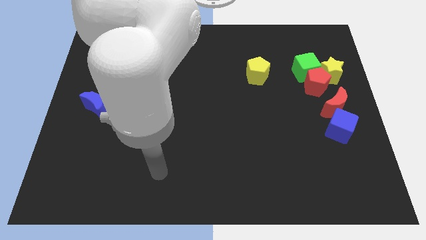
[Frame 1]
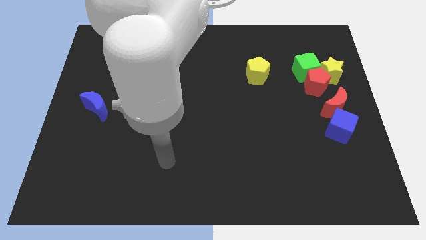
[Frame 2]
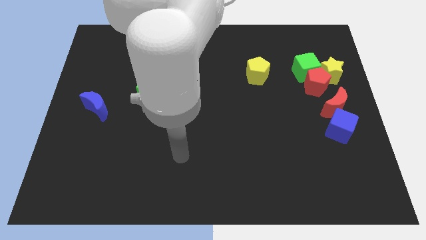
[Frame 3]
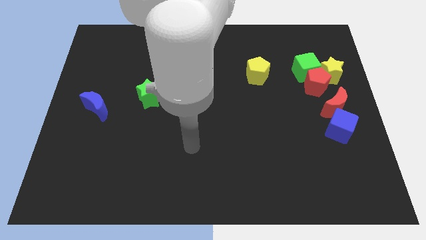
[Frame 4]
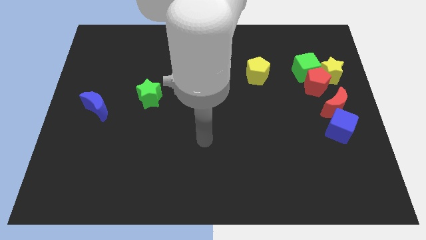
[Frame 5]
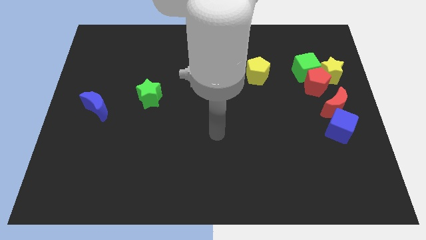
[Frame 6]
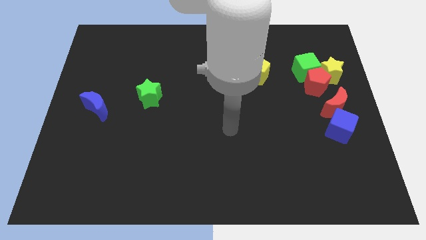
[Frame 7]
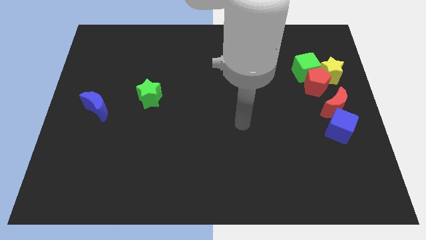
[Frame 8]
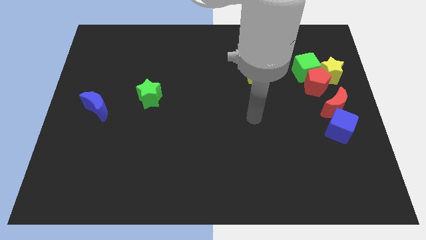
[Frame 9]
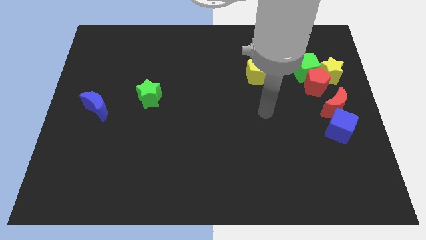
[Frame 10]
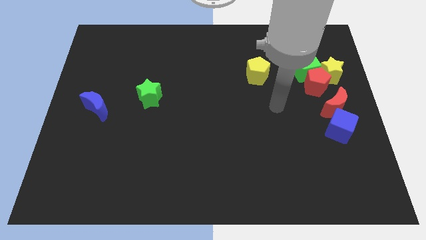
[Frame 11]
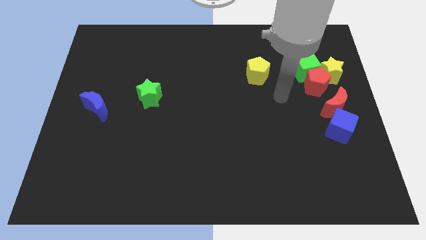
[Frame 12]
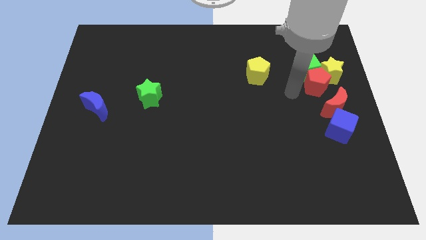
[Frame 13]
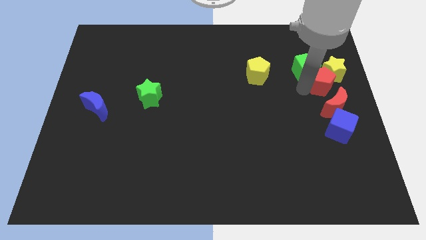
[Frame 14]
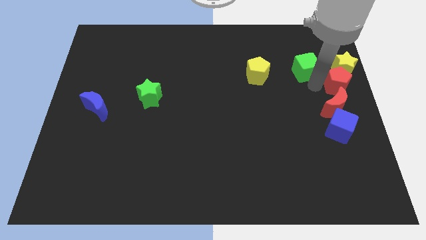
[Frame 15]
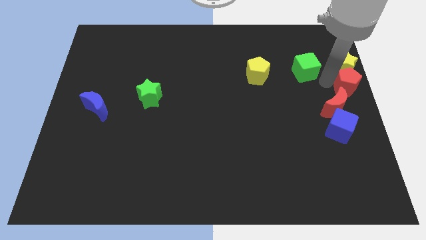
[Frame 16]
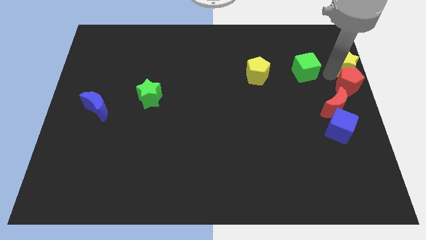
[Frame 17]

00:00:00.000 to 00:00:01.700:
move the green cube away from the red pentagon and yellow star

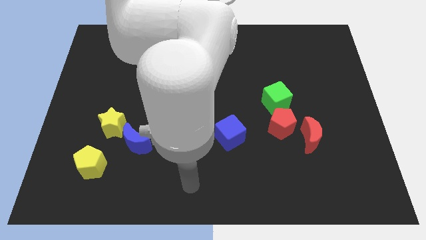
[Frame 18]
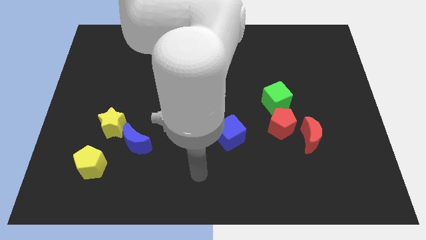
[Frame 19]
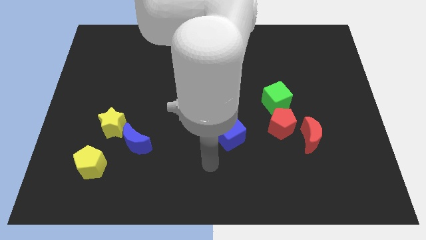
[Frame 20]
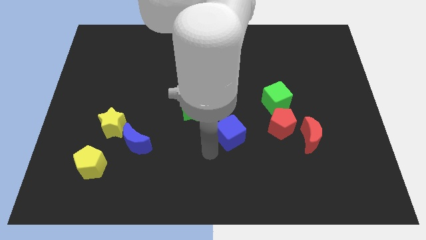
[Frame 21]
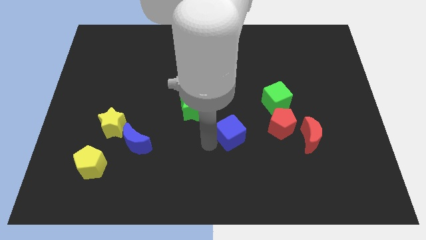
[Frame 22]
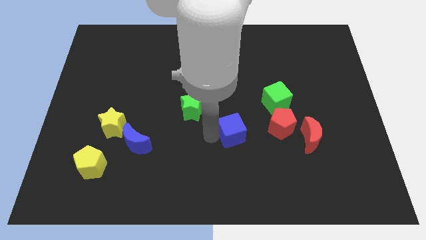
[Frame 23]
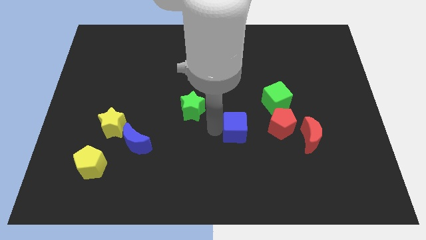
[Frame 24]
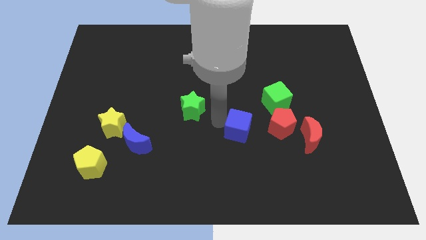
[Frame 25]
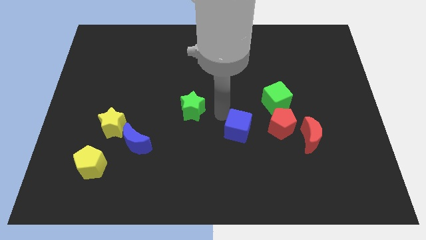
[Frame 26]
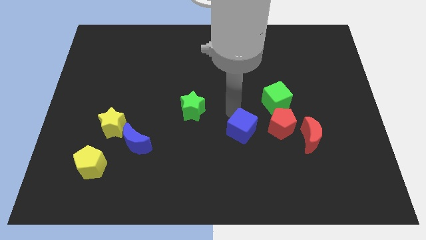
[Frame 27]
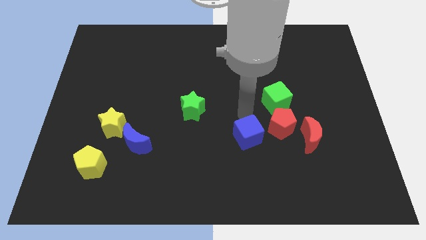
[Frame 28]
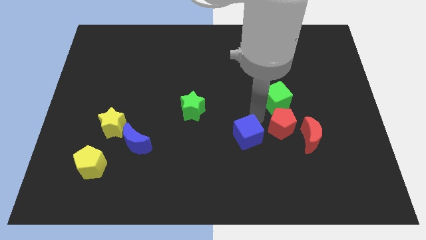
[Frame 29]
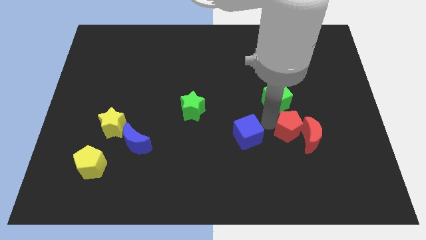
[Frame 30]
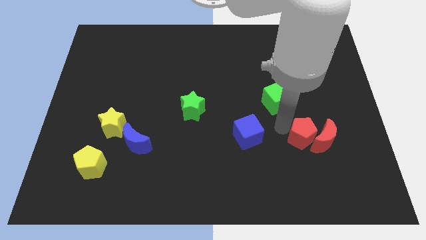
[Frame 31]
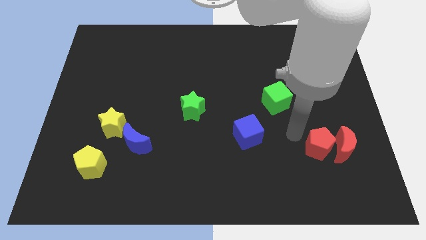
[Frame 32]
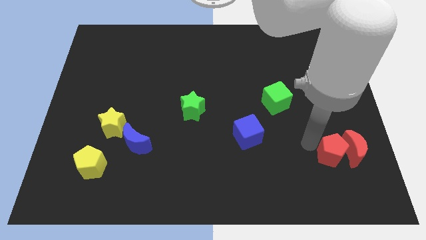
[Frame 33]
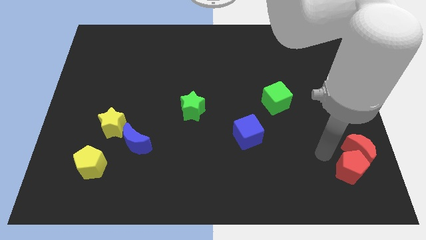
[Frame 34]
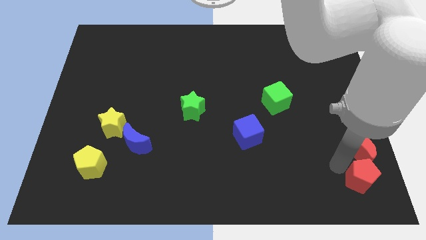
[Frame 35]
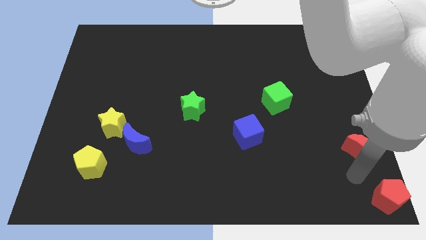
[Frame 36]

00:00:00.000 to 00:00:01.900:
move the red moon away from the red pentagon

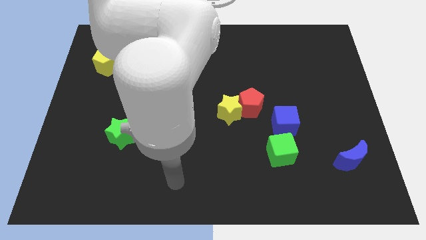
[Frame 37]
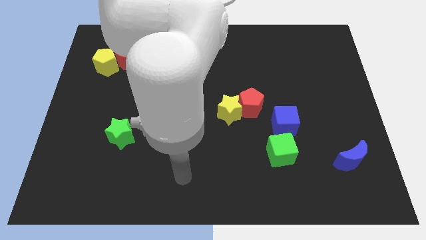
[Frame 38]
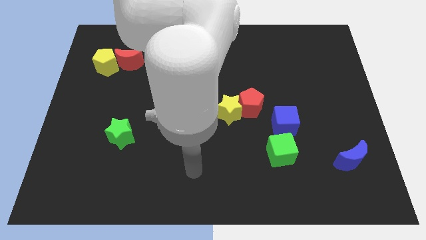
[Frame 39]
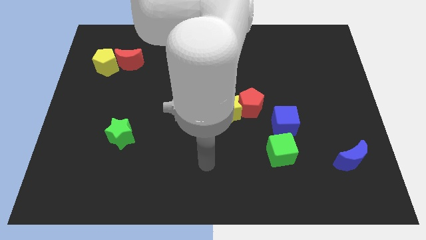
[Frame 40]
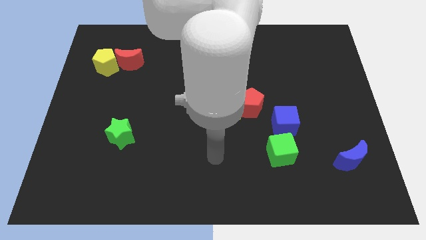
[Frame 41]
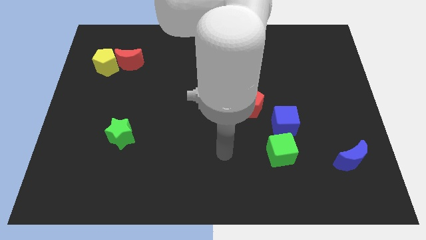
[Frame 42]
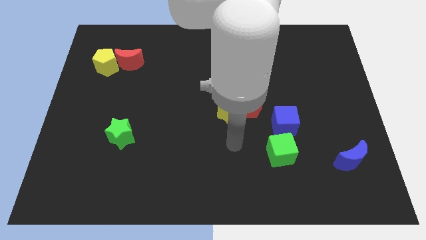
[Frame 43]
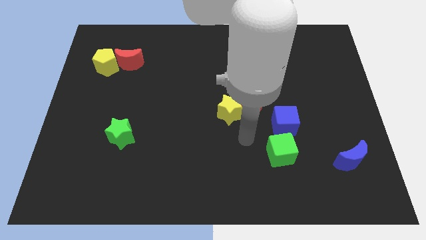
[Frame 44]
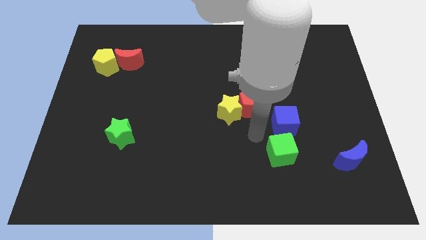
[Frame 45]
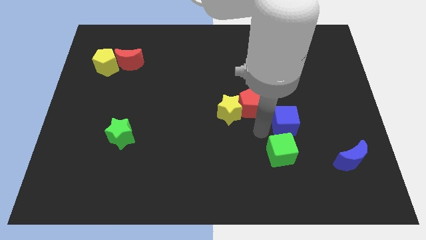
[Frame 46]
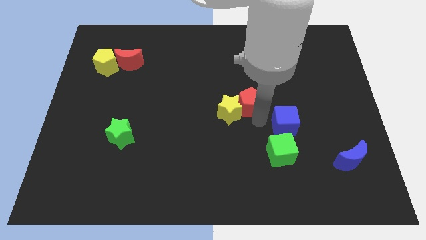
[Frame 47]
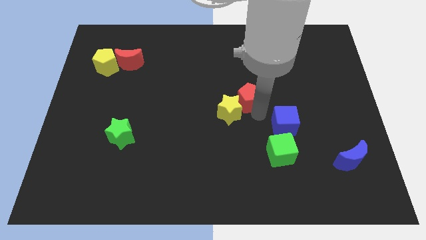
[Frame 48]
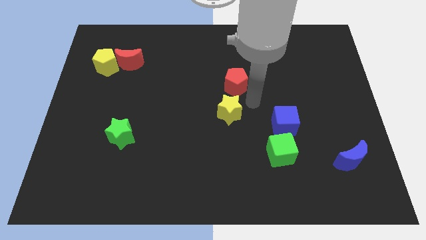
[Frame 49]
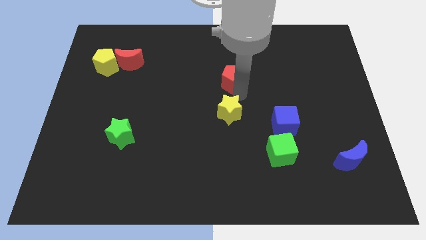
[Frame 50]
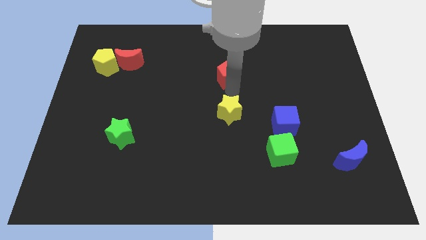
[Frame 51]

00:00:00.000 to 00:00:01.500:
separate the yellow star from the red pentagon

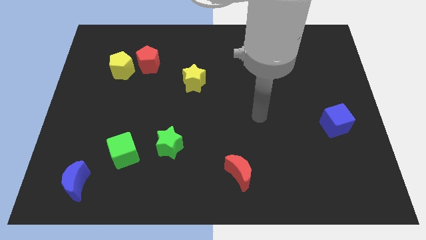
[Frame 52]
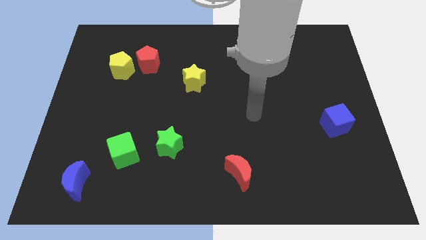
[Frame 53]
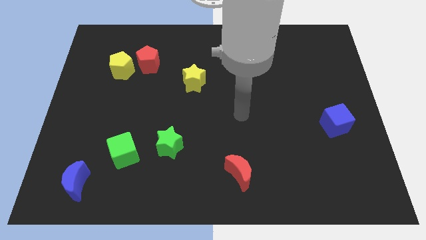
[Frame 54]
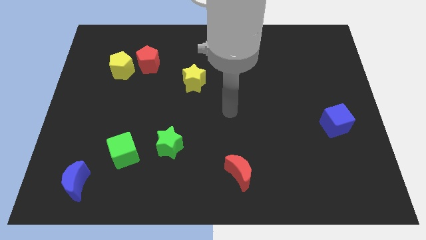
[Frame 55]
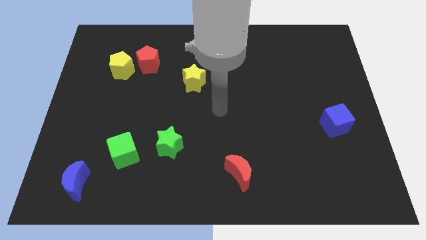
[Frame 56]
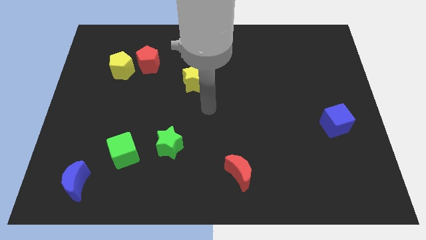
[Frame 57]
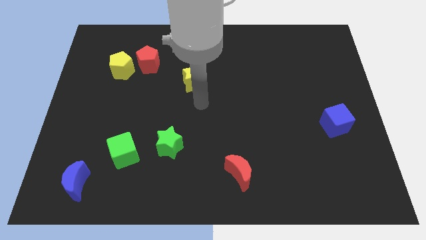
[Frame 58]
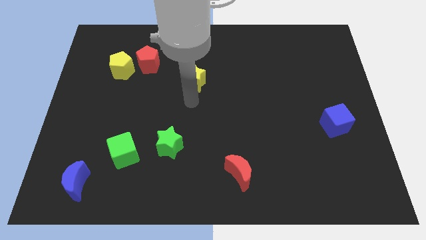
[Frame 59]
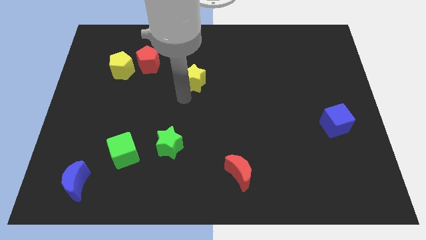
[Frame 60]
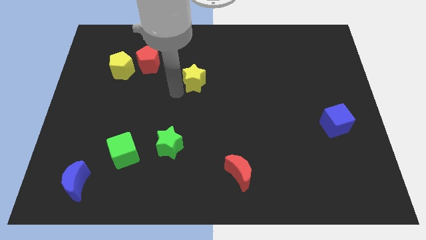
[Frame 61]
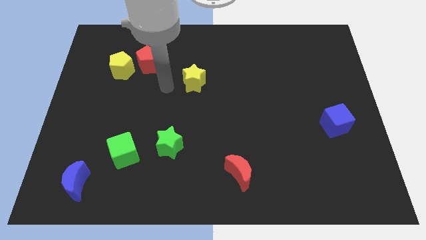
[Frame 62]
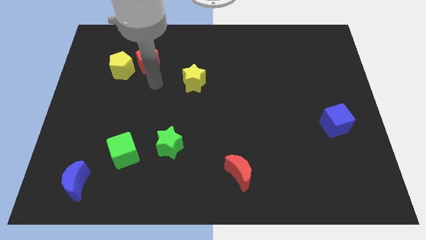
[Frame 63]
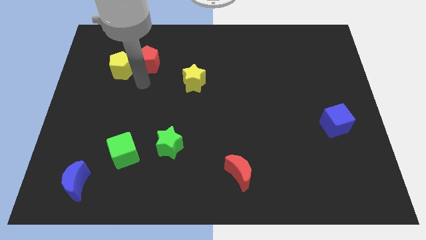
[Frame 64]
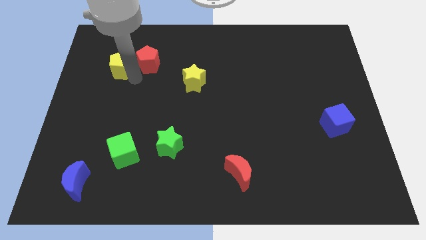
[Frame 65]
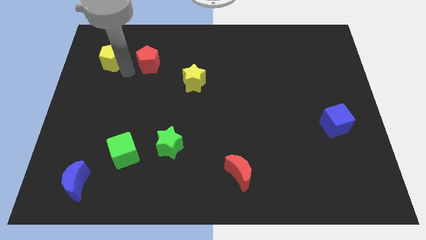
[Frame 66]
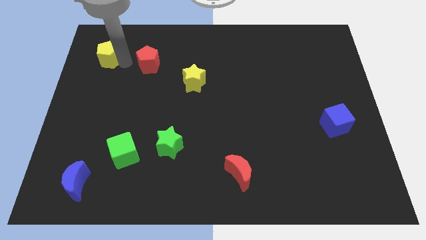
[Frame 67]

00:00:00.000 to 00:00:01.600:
separate the red pentagon from the yellow pentagon

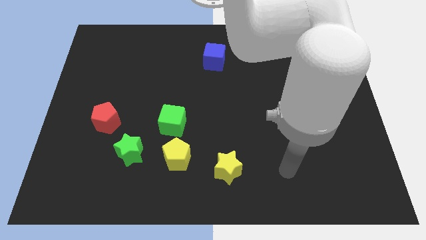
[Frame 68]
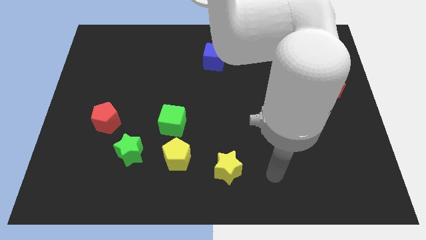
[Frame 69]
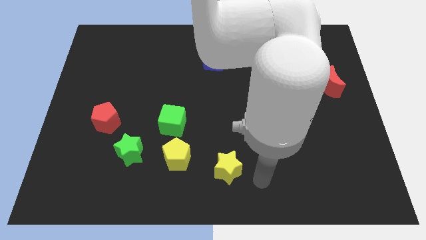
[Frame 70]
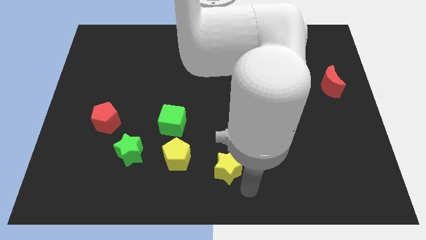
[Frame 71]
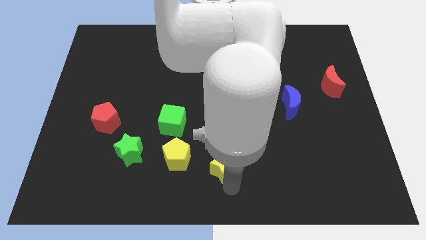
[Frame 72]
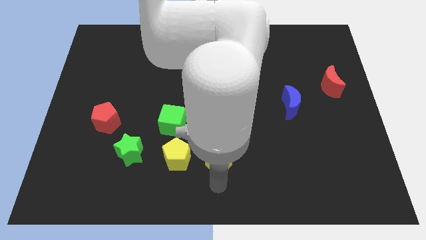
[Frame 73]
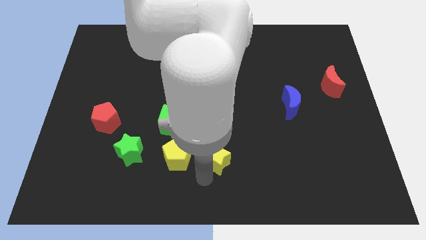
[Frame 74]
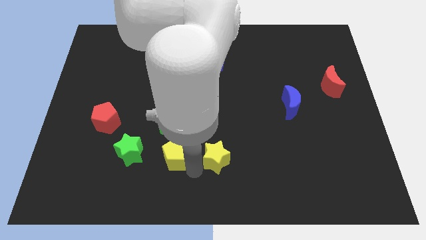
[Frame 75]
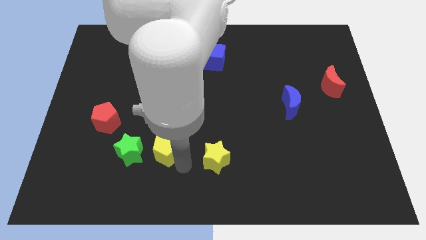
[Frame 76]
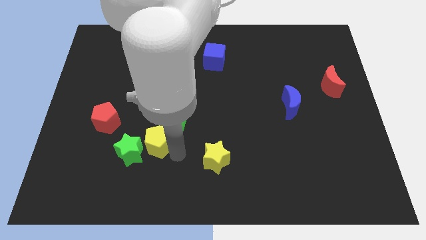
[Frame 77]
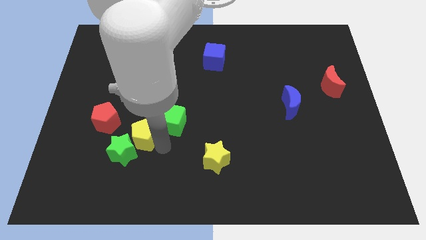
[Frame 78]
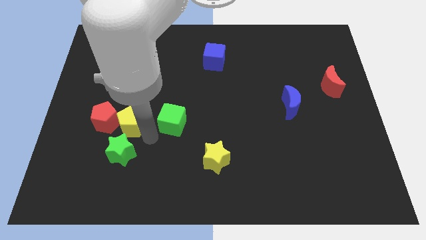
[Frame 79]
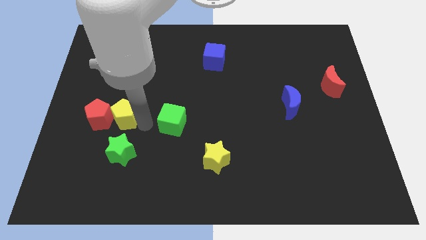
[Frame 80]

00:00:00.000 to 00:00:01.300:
pull the green cube apart from the yellow pentagon

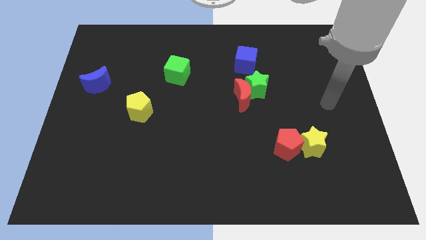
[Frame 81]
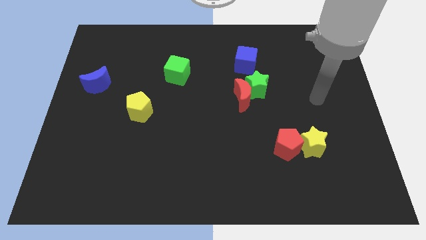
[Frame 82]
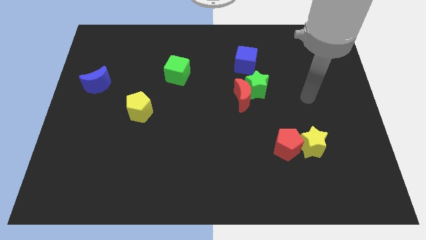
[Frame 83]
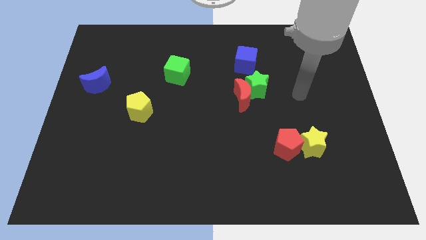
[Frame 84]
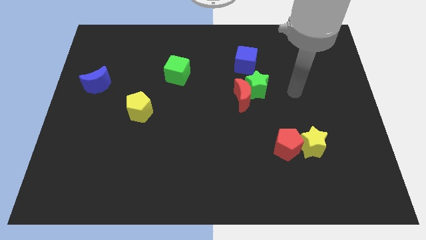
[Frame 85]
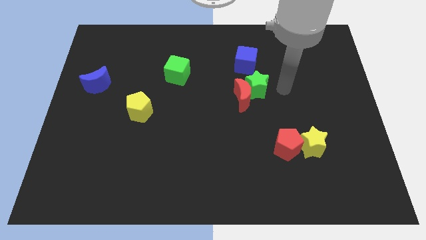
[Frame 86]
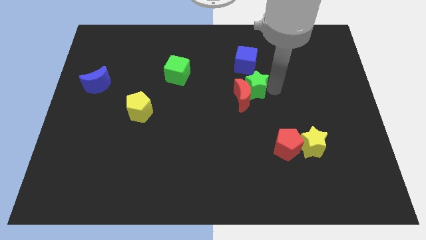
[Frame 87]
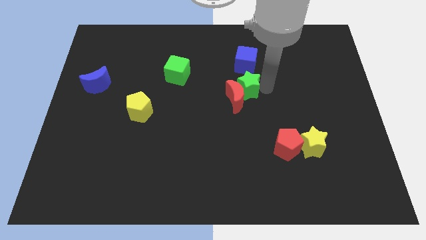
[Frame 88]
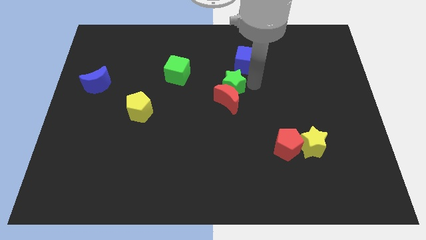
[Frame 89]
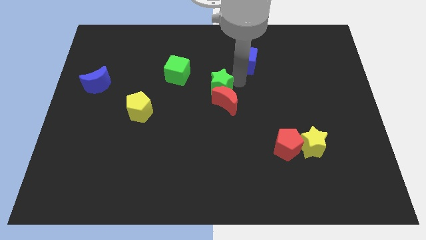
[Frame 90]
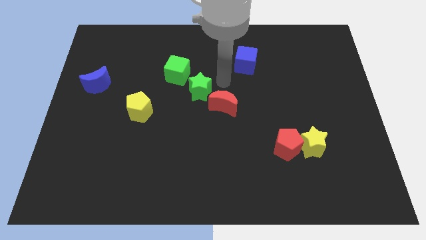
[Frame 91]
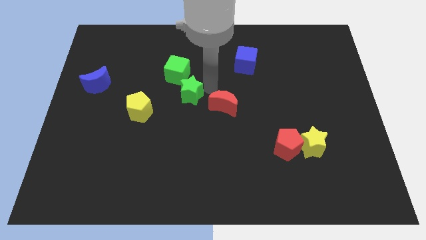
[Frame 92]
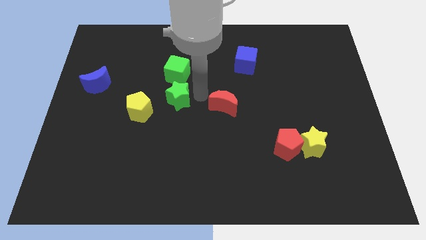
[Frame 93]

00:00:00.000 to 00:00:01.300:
pull the red moon apart from the green star
